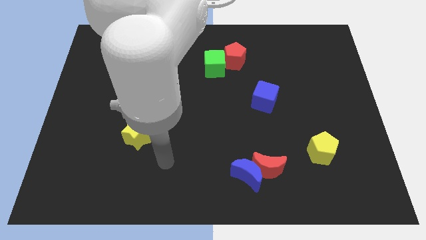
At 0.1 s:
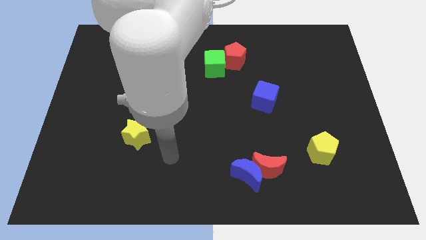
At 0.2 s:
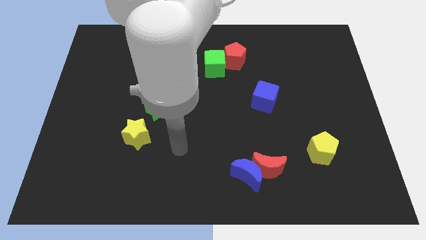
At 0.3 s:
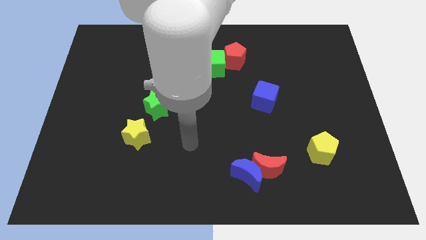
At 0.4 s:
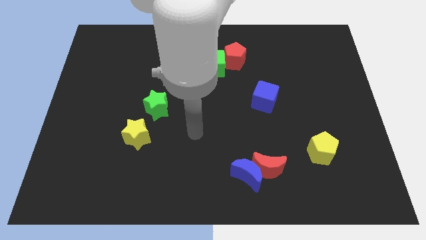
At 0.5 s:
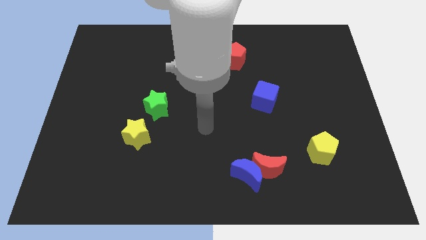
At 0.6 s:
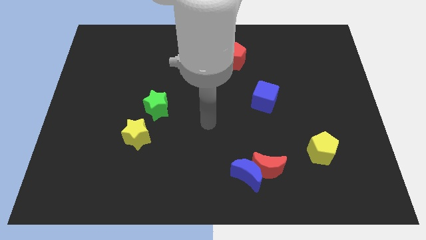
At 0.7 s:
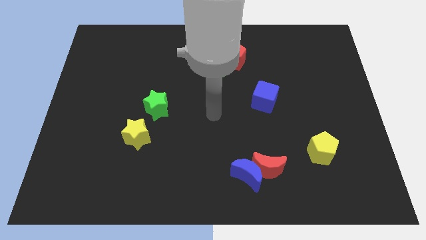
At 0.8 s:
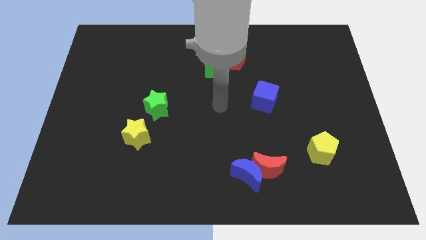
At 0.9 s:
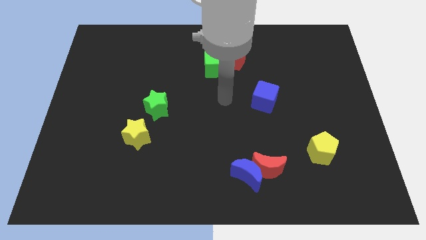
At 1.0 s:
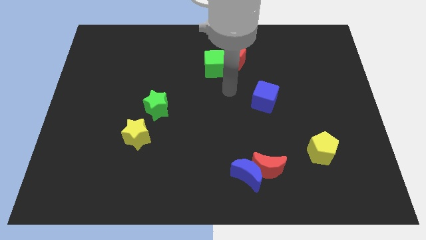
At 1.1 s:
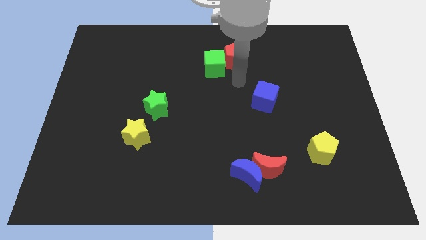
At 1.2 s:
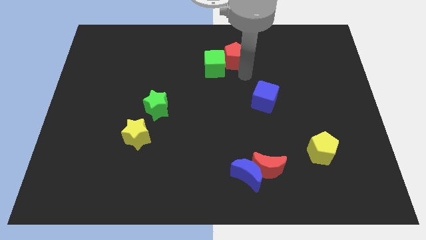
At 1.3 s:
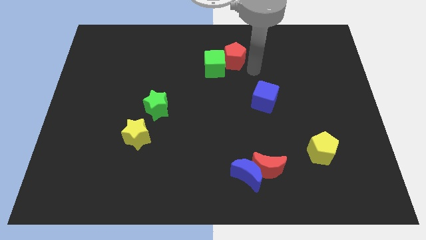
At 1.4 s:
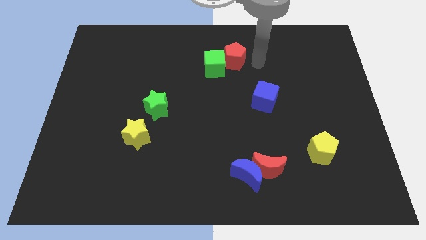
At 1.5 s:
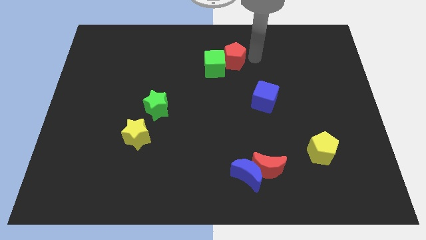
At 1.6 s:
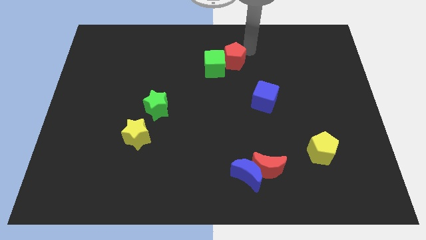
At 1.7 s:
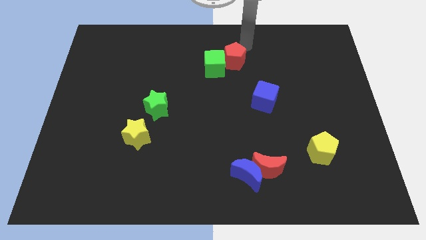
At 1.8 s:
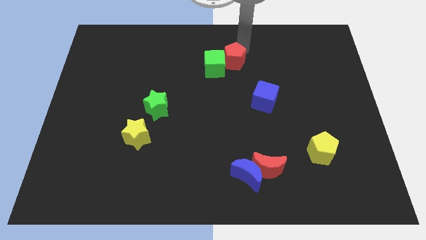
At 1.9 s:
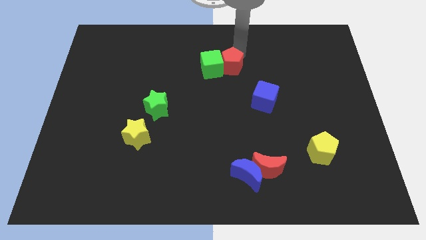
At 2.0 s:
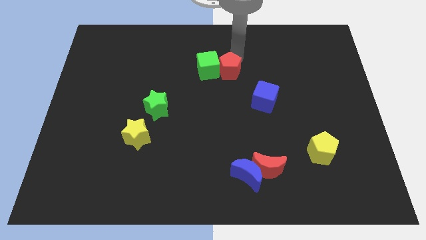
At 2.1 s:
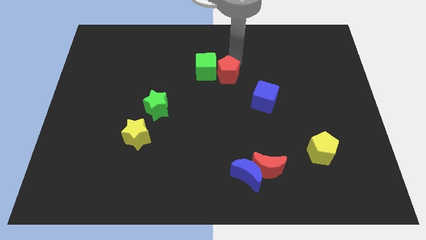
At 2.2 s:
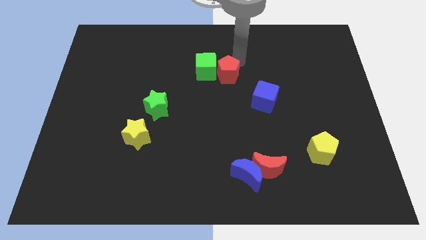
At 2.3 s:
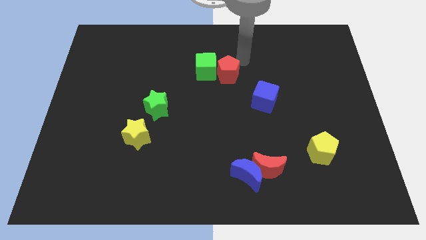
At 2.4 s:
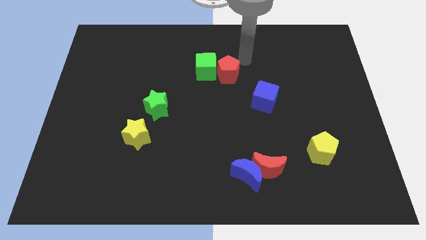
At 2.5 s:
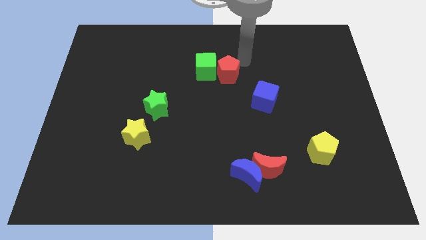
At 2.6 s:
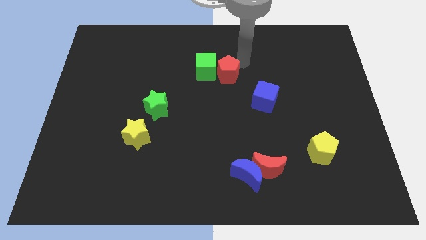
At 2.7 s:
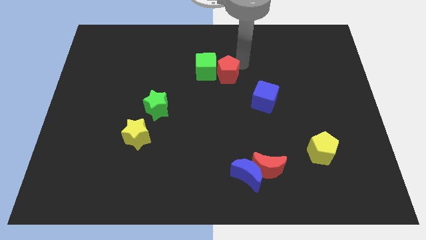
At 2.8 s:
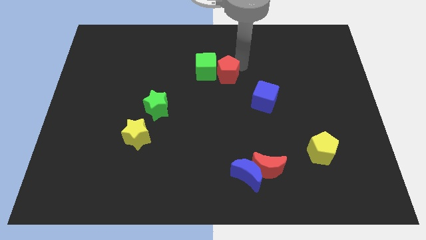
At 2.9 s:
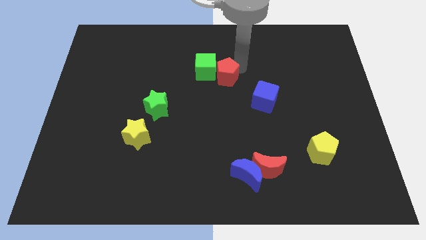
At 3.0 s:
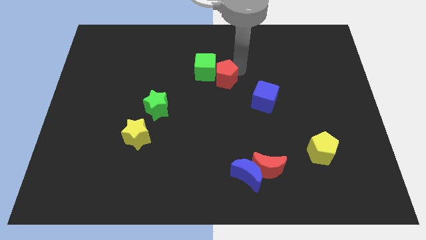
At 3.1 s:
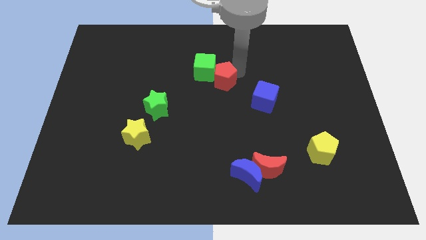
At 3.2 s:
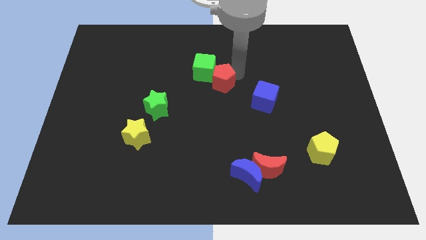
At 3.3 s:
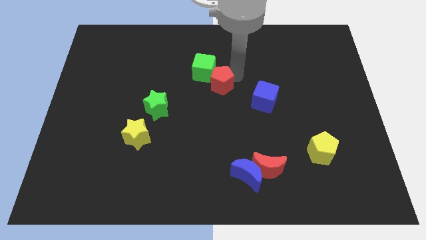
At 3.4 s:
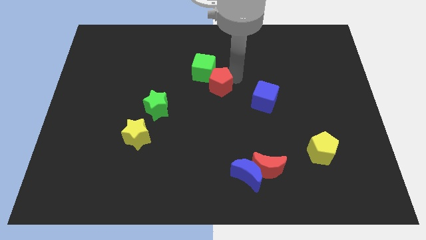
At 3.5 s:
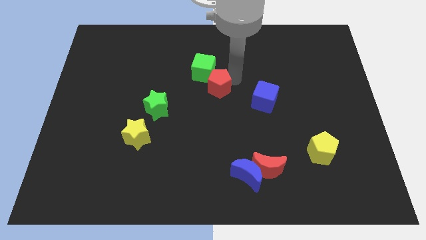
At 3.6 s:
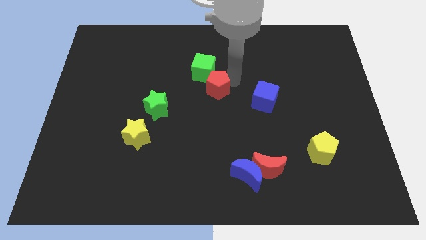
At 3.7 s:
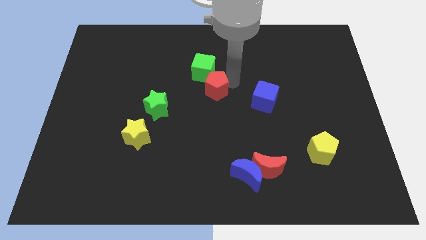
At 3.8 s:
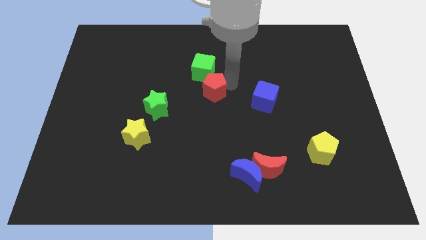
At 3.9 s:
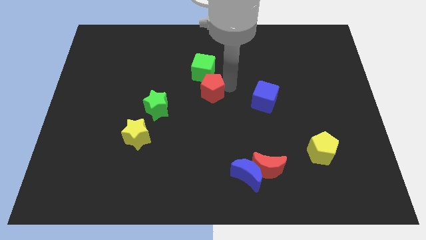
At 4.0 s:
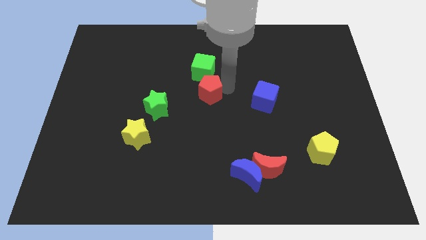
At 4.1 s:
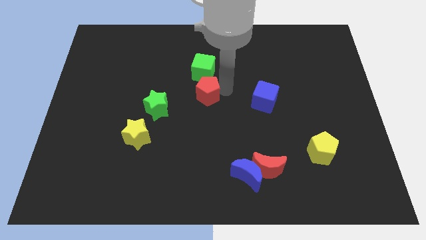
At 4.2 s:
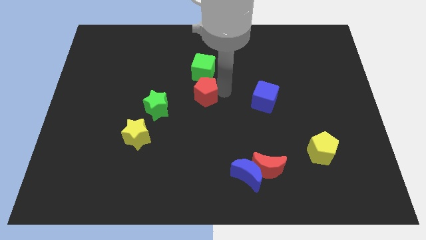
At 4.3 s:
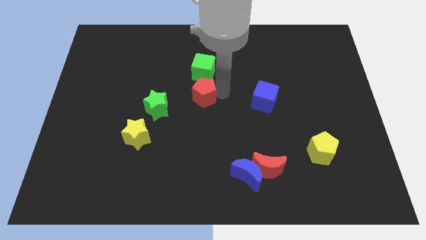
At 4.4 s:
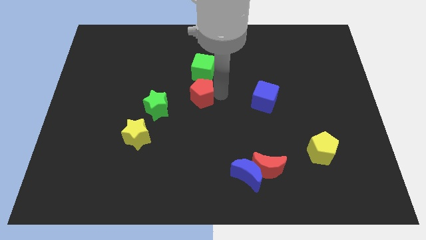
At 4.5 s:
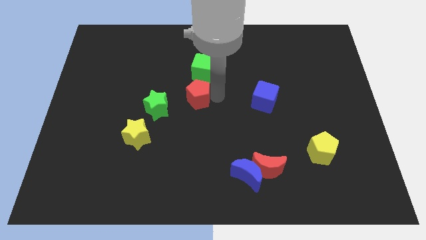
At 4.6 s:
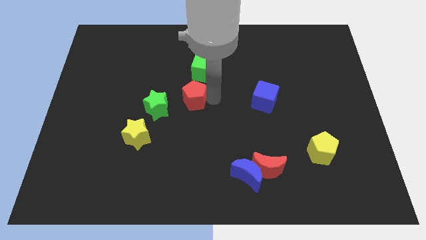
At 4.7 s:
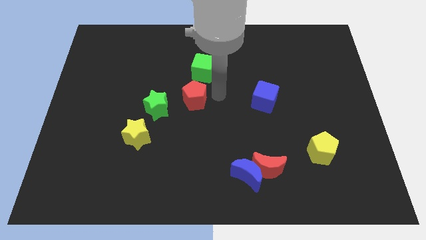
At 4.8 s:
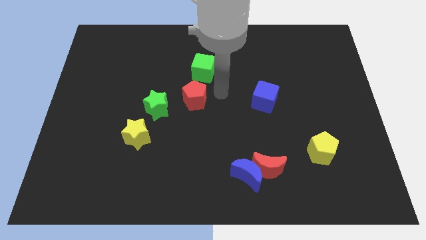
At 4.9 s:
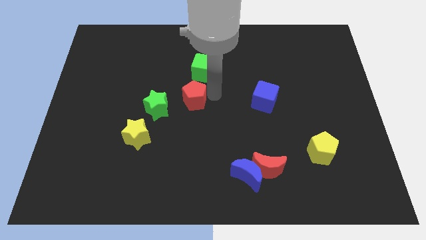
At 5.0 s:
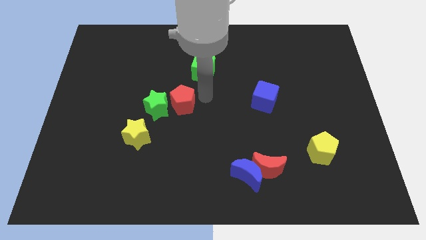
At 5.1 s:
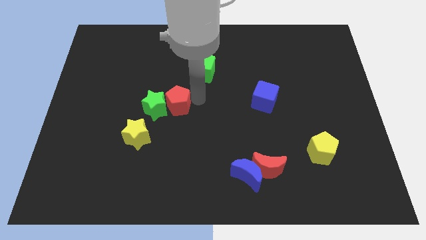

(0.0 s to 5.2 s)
slide the red pentagon to the green star

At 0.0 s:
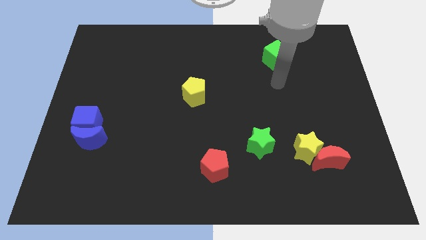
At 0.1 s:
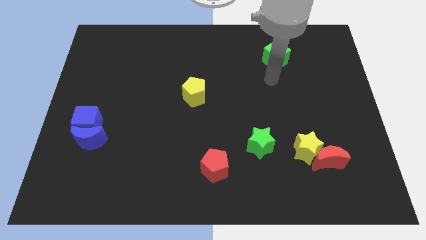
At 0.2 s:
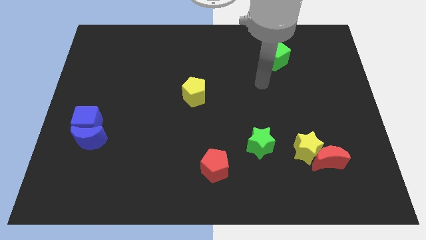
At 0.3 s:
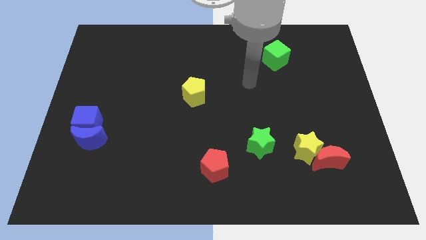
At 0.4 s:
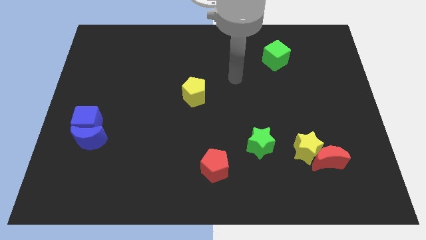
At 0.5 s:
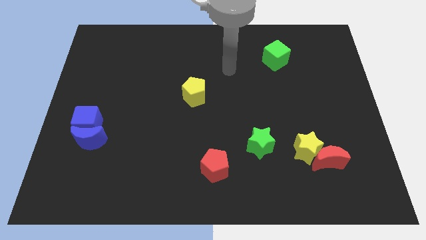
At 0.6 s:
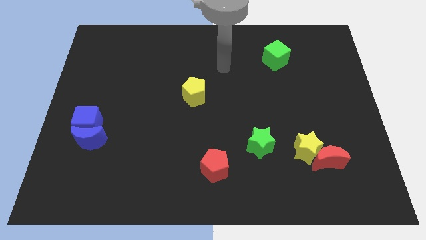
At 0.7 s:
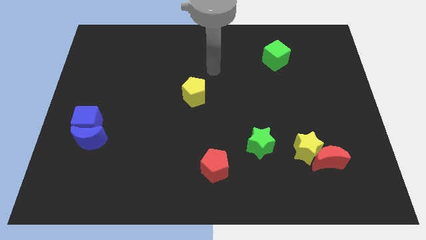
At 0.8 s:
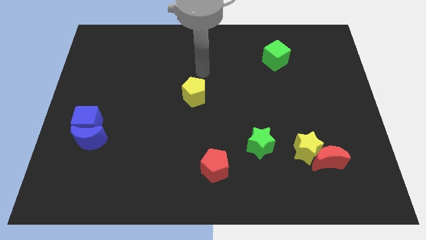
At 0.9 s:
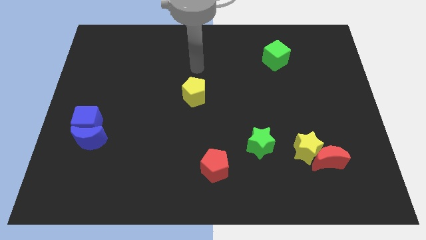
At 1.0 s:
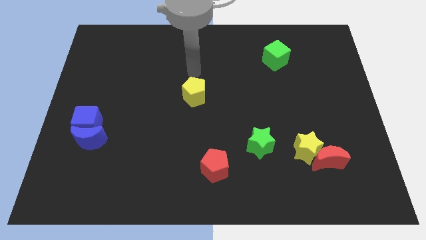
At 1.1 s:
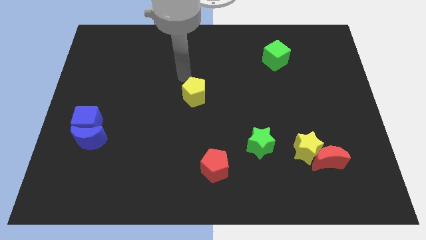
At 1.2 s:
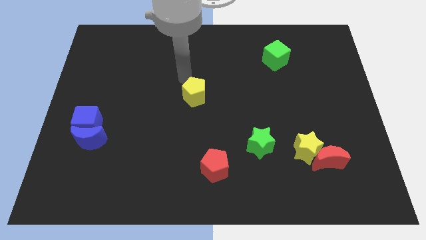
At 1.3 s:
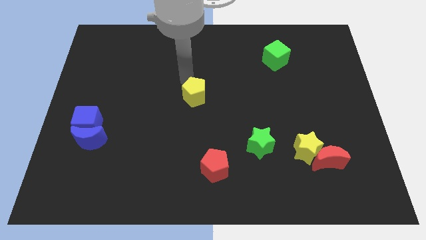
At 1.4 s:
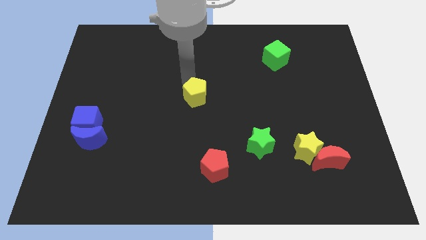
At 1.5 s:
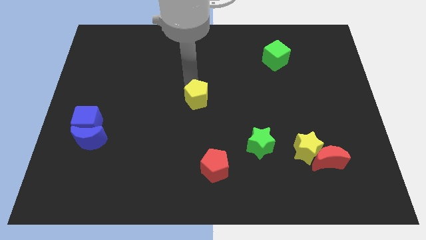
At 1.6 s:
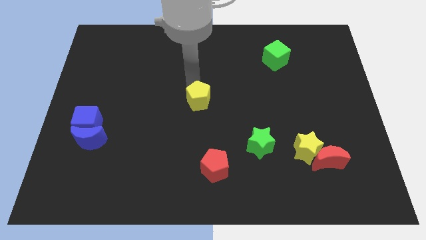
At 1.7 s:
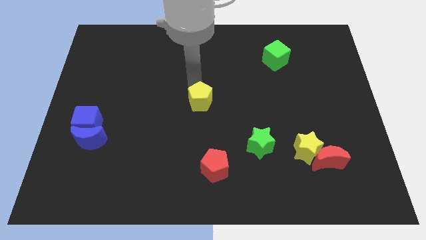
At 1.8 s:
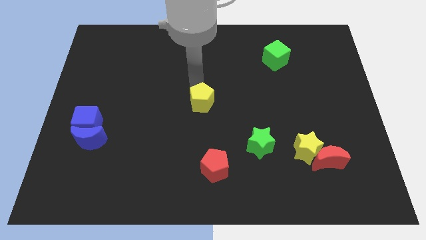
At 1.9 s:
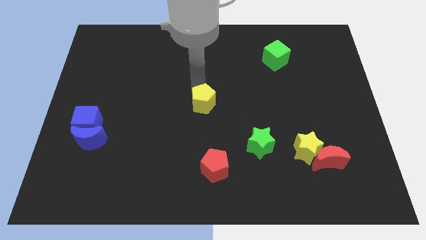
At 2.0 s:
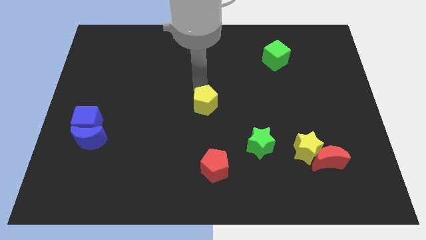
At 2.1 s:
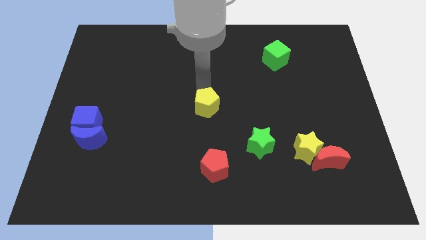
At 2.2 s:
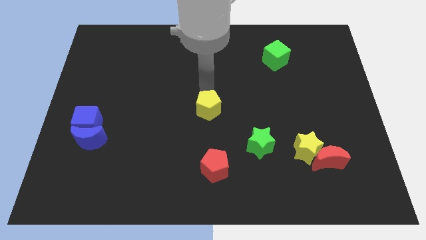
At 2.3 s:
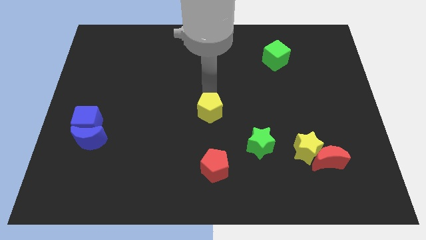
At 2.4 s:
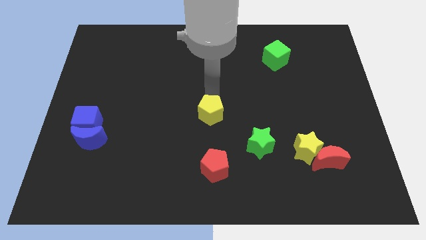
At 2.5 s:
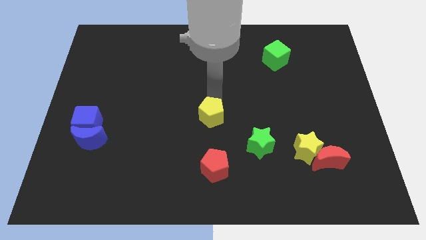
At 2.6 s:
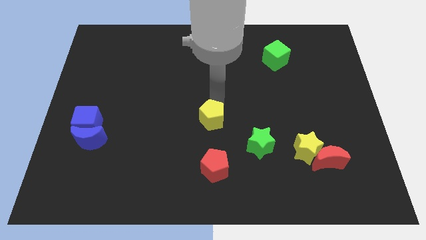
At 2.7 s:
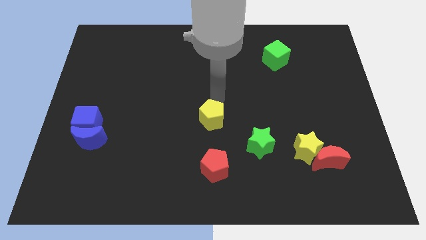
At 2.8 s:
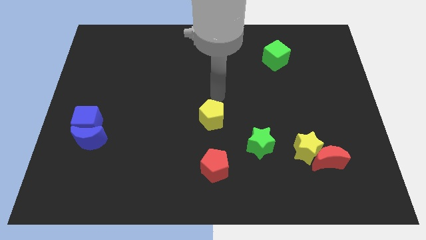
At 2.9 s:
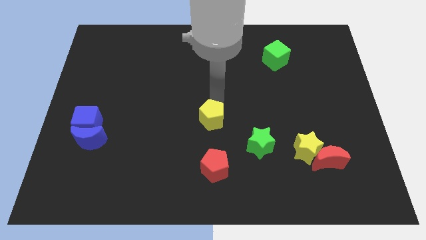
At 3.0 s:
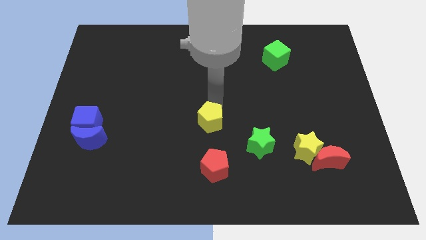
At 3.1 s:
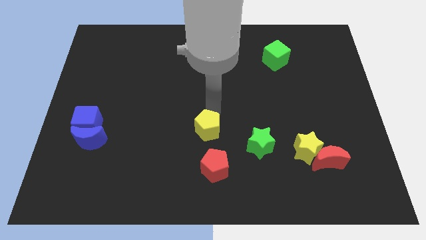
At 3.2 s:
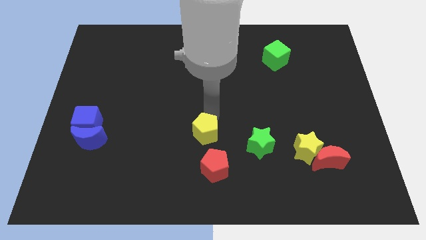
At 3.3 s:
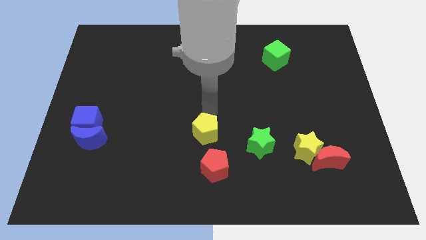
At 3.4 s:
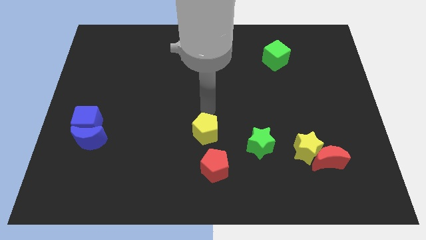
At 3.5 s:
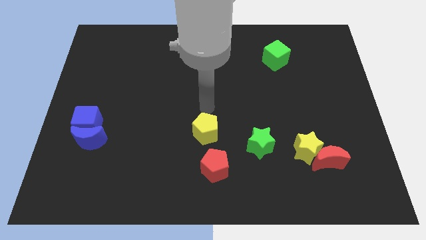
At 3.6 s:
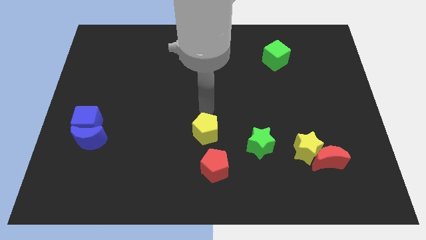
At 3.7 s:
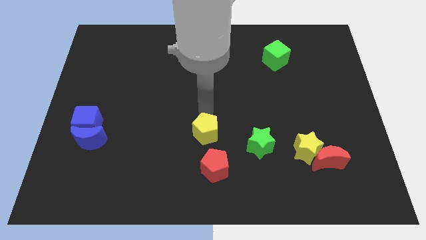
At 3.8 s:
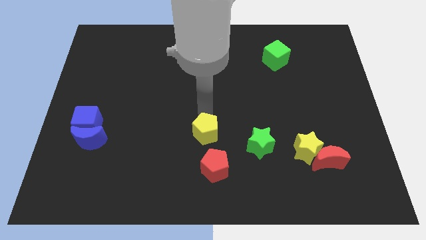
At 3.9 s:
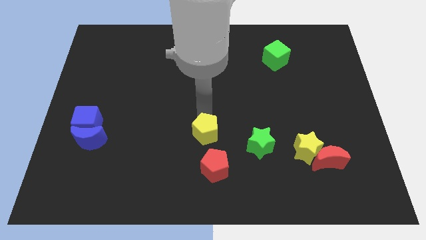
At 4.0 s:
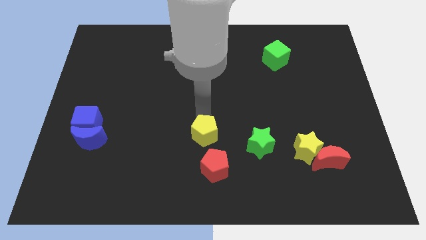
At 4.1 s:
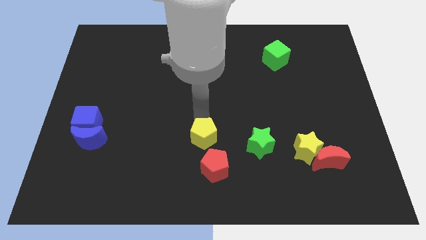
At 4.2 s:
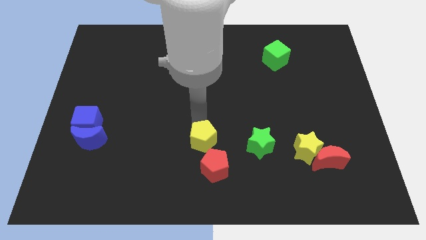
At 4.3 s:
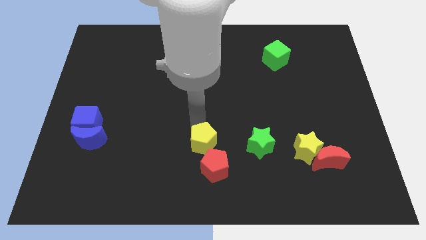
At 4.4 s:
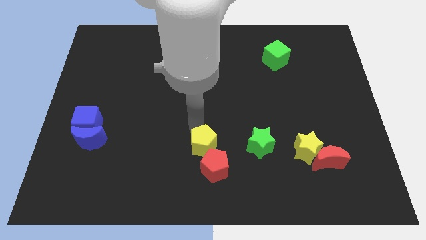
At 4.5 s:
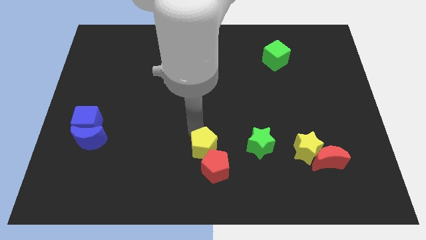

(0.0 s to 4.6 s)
move the yellow pentagon to the red pentagon
